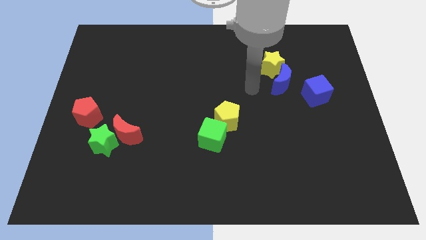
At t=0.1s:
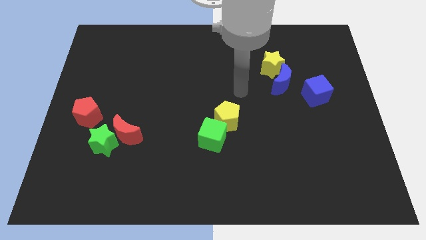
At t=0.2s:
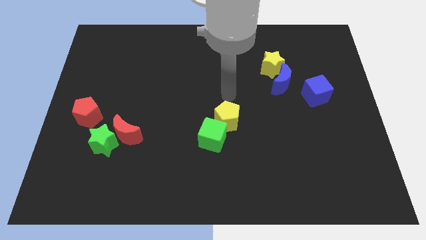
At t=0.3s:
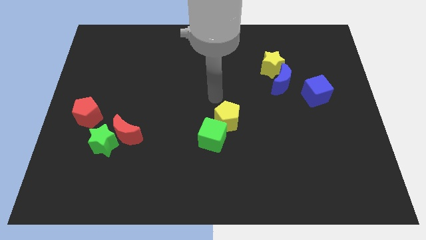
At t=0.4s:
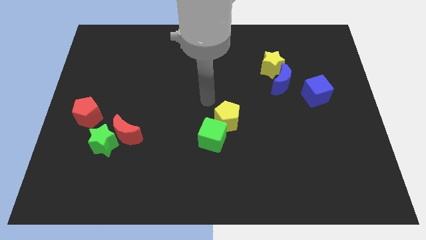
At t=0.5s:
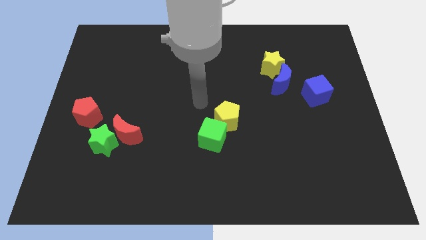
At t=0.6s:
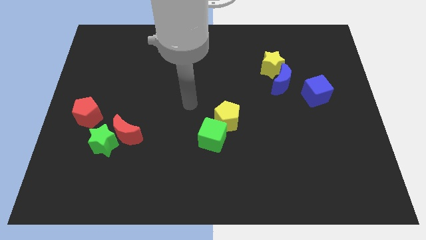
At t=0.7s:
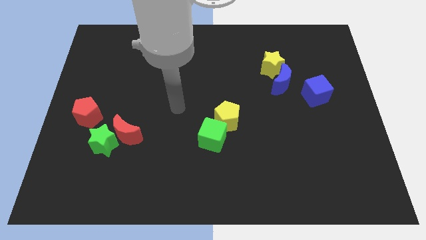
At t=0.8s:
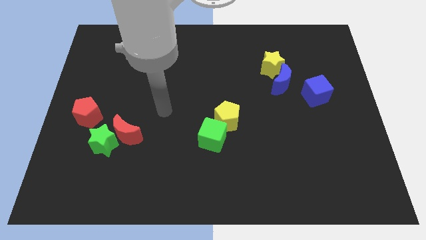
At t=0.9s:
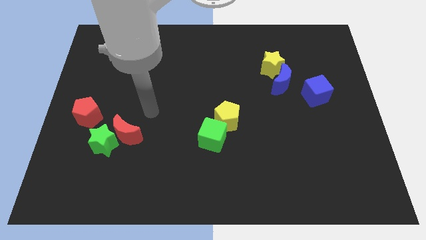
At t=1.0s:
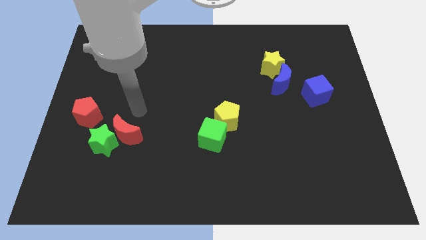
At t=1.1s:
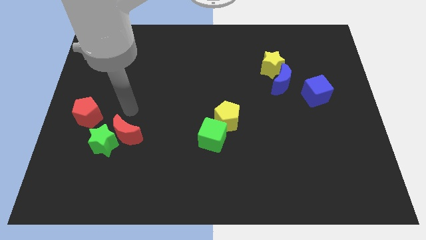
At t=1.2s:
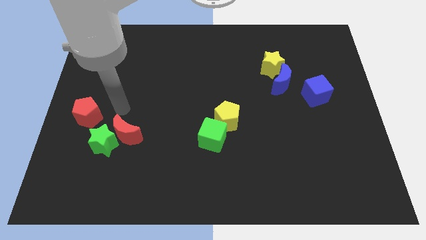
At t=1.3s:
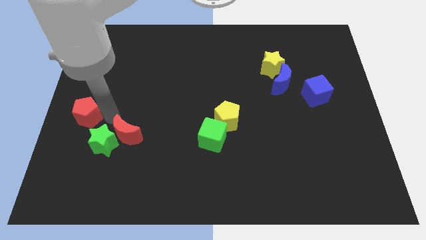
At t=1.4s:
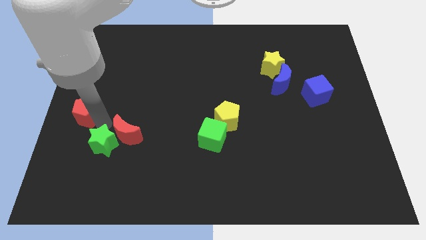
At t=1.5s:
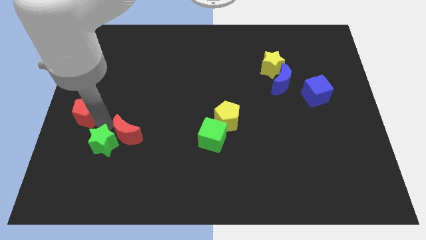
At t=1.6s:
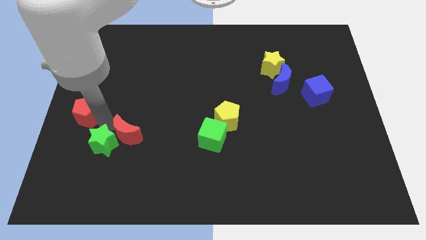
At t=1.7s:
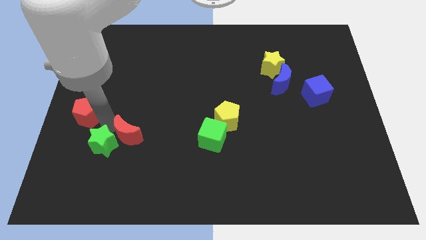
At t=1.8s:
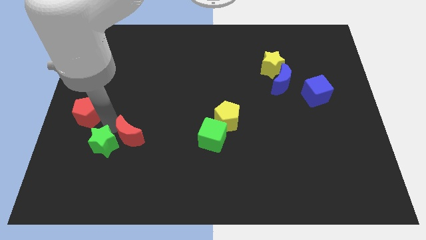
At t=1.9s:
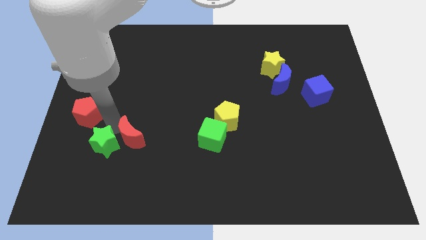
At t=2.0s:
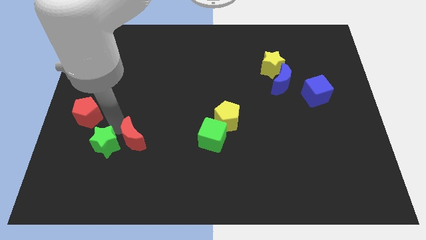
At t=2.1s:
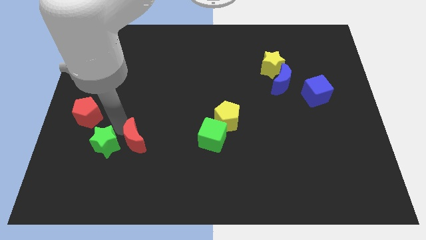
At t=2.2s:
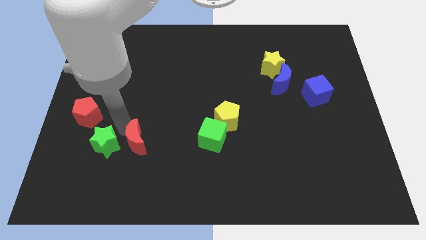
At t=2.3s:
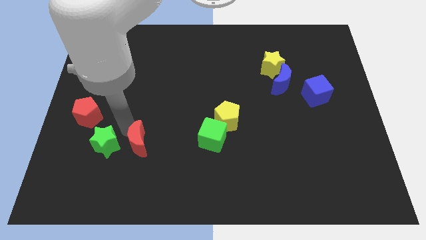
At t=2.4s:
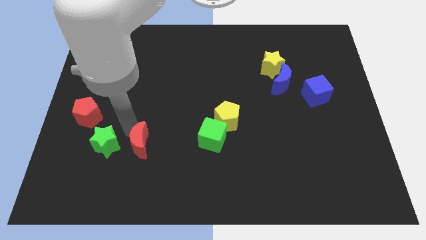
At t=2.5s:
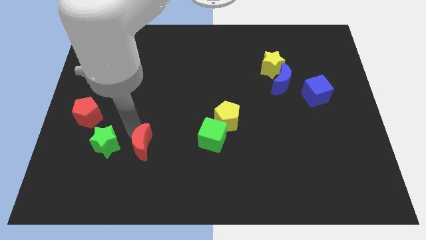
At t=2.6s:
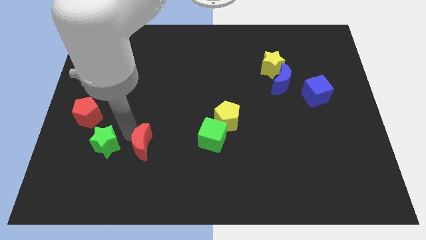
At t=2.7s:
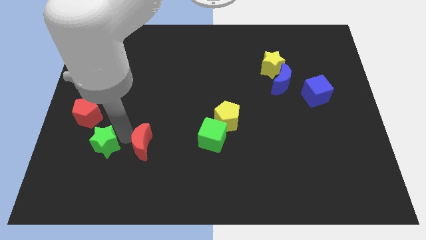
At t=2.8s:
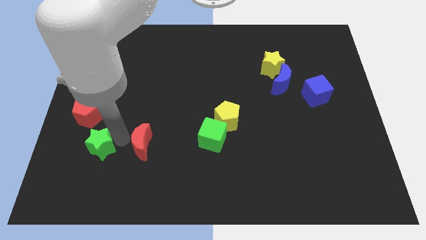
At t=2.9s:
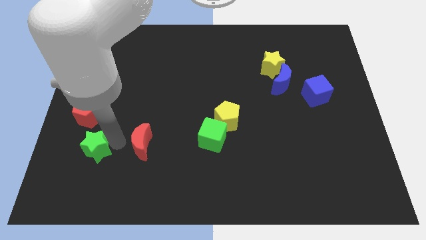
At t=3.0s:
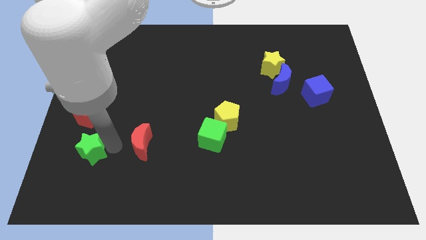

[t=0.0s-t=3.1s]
move the red moon away from the green star

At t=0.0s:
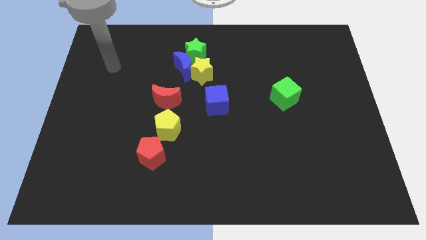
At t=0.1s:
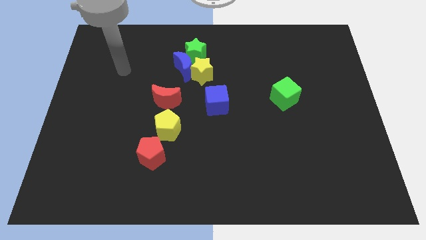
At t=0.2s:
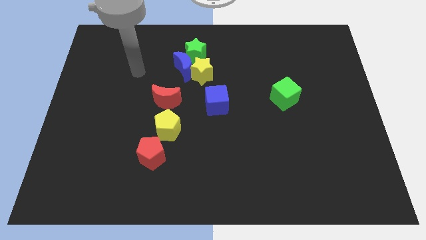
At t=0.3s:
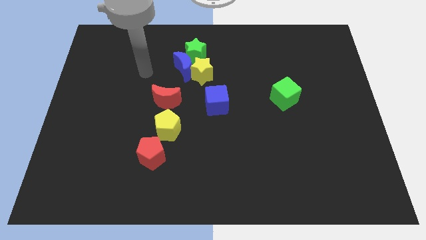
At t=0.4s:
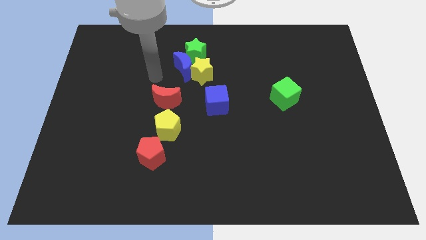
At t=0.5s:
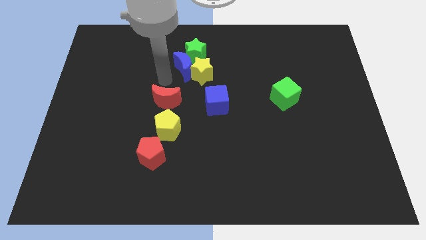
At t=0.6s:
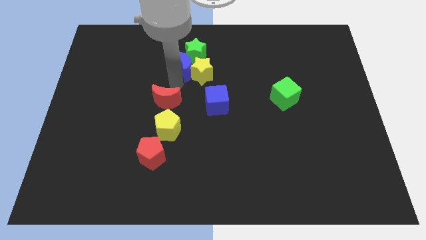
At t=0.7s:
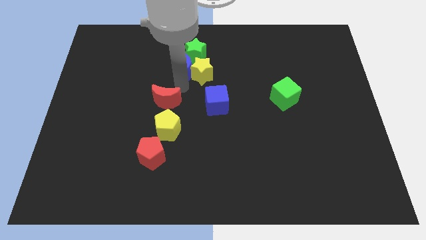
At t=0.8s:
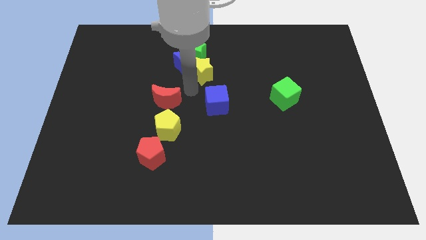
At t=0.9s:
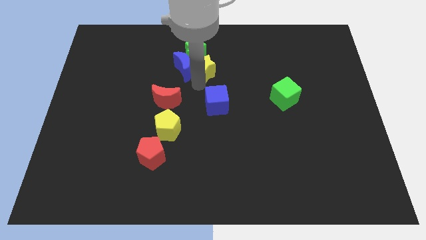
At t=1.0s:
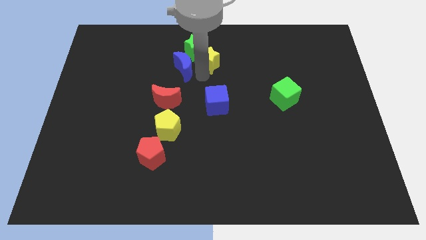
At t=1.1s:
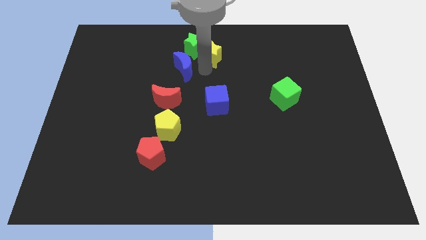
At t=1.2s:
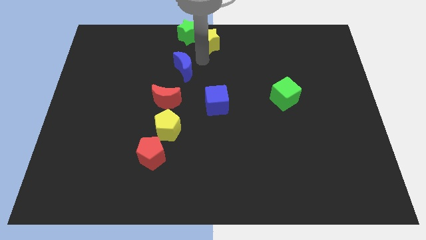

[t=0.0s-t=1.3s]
move the blue moon away from the yellow star and green star

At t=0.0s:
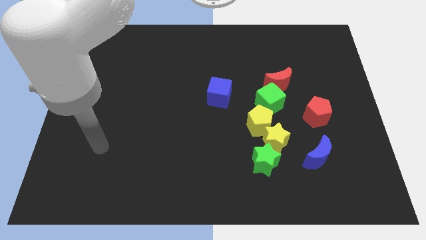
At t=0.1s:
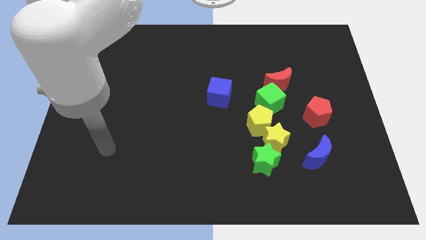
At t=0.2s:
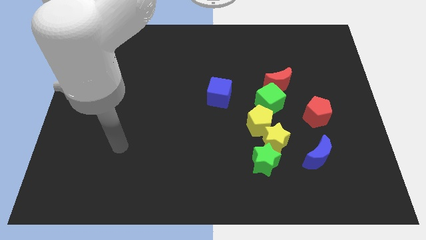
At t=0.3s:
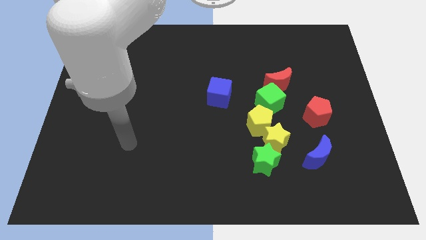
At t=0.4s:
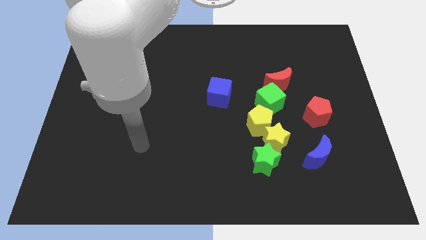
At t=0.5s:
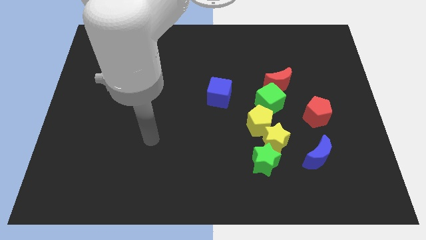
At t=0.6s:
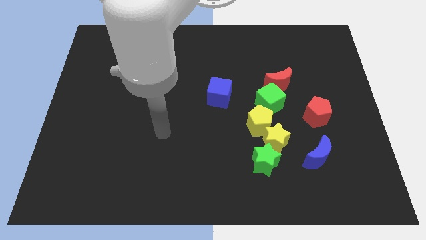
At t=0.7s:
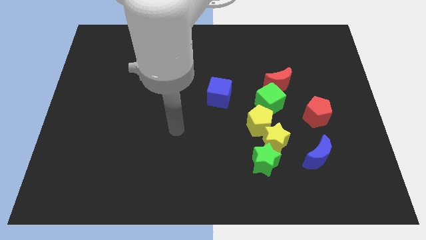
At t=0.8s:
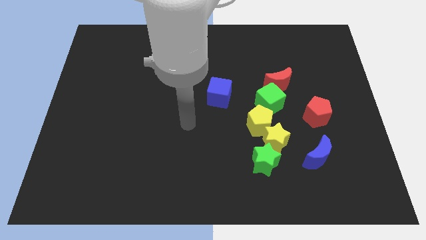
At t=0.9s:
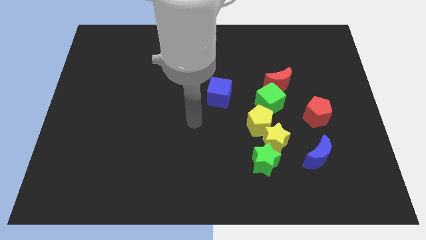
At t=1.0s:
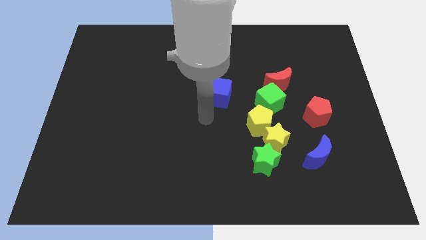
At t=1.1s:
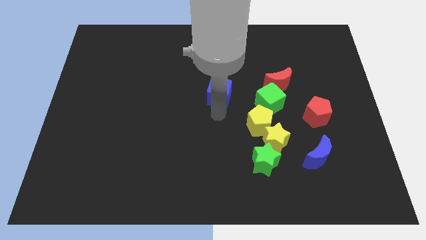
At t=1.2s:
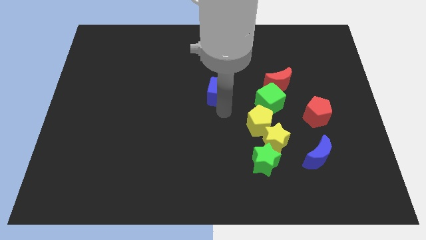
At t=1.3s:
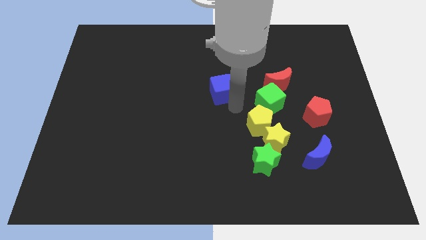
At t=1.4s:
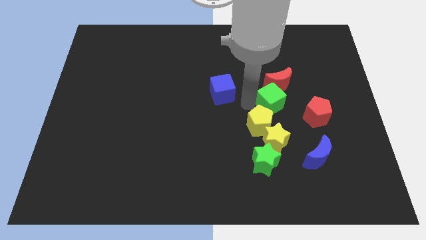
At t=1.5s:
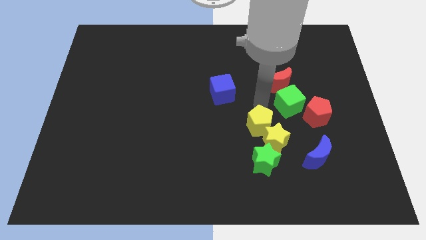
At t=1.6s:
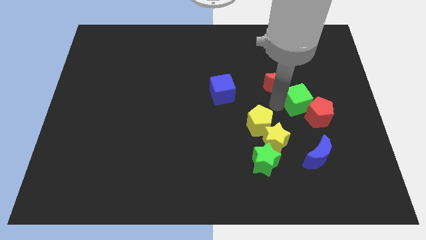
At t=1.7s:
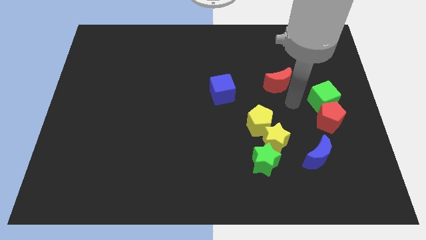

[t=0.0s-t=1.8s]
separate the red moon from the green cube

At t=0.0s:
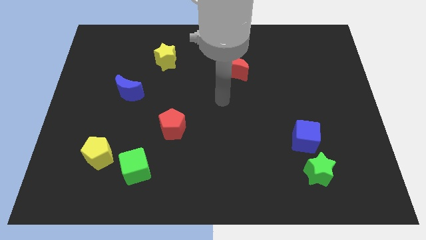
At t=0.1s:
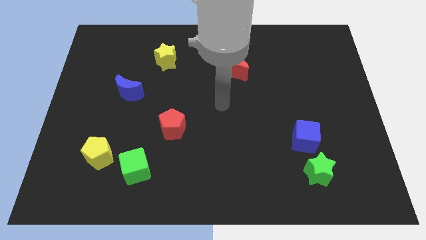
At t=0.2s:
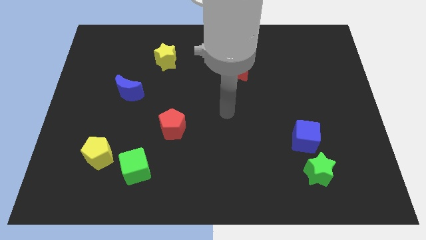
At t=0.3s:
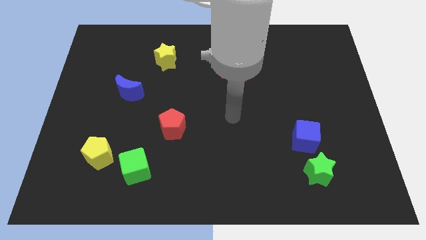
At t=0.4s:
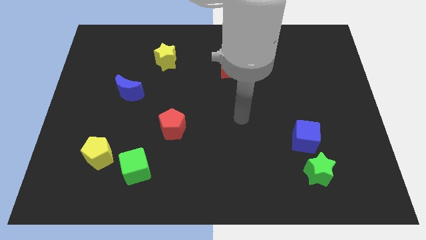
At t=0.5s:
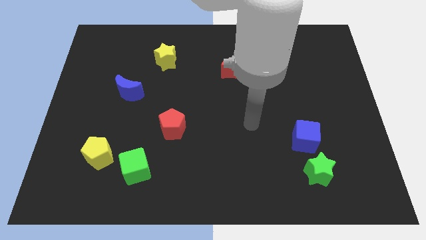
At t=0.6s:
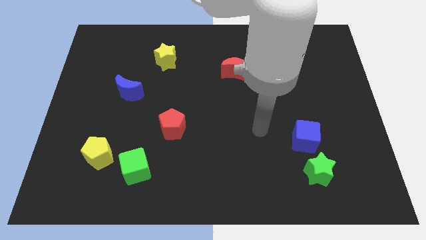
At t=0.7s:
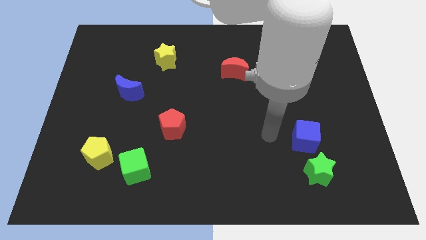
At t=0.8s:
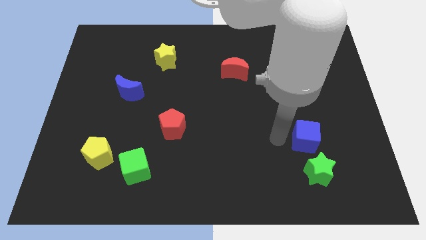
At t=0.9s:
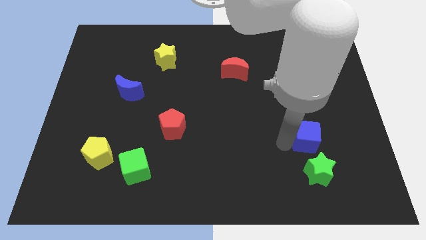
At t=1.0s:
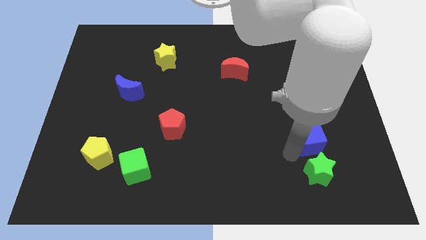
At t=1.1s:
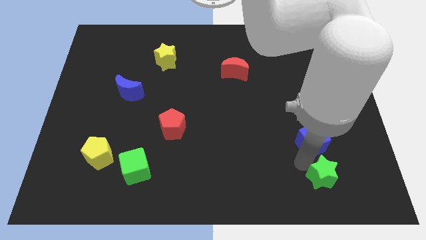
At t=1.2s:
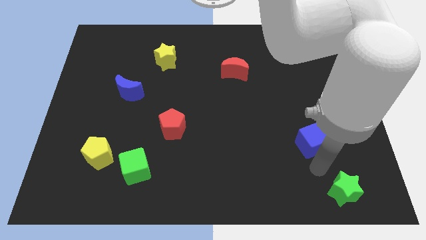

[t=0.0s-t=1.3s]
move the blue cube away from the green star

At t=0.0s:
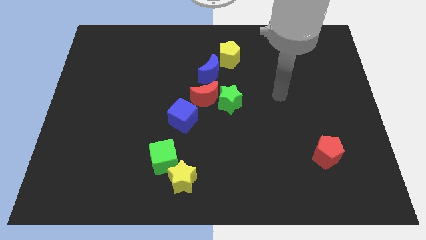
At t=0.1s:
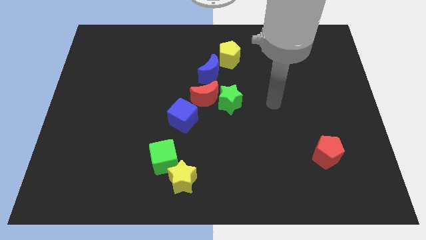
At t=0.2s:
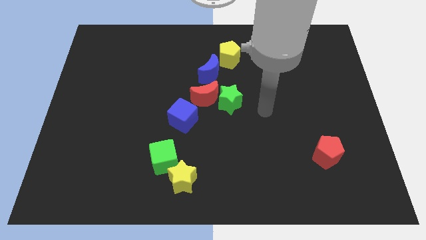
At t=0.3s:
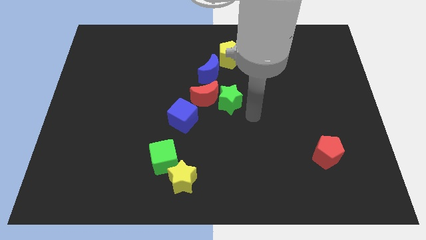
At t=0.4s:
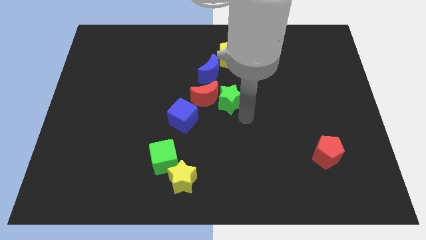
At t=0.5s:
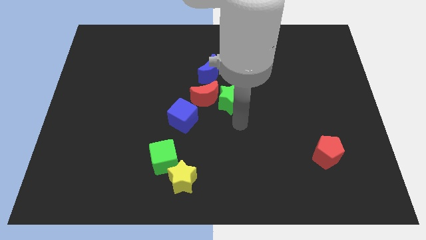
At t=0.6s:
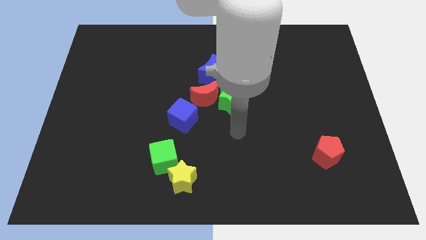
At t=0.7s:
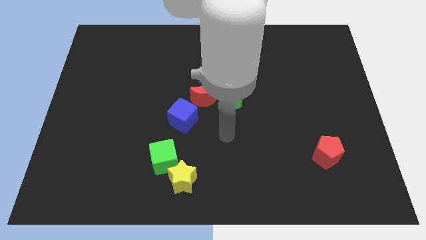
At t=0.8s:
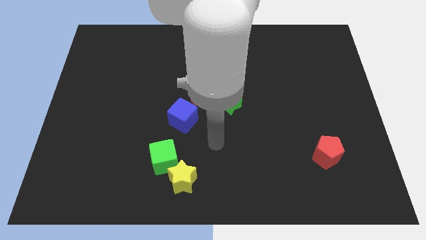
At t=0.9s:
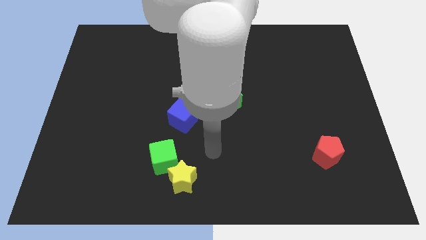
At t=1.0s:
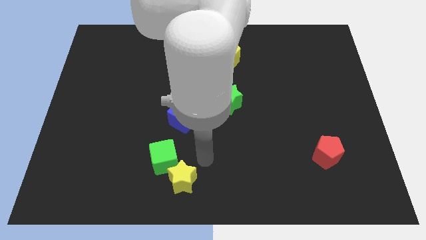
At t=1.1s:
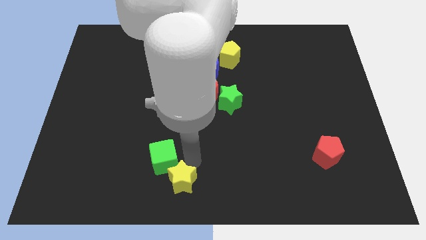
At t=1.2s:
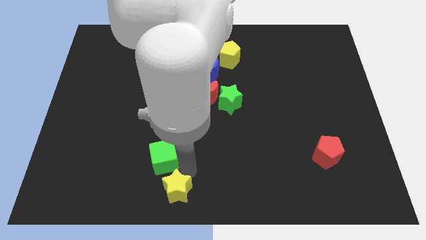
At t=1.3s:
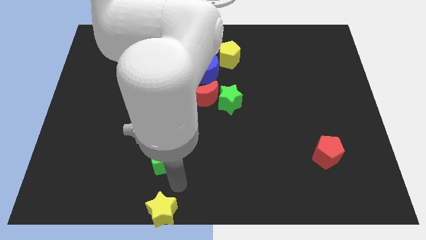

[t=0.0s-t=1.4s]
separate the green cube from the yellow star

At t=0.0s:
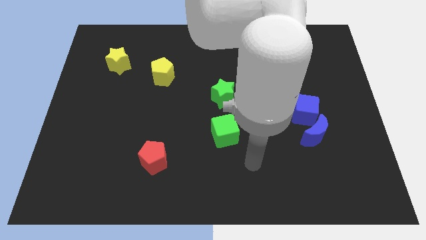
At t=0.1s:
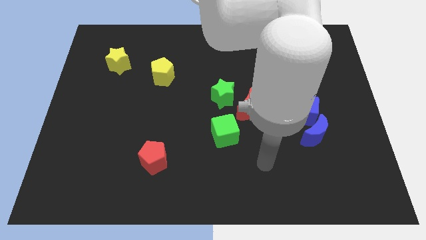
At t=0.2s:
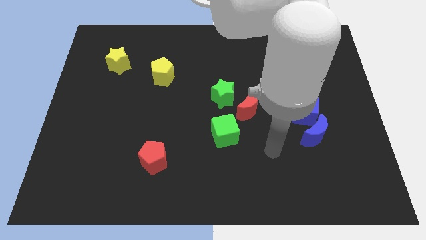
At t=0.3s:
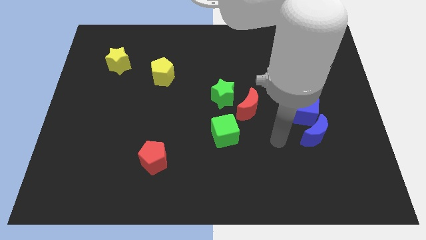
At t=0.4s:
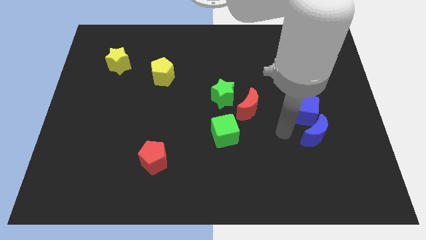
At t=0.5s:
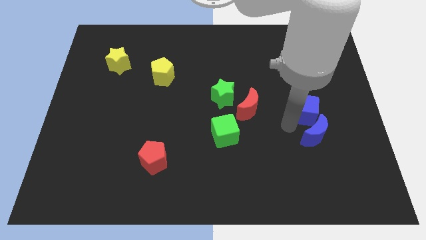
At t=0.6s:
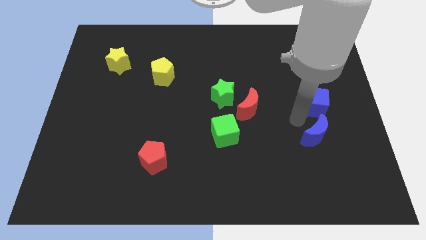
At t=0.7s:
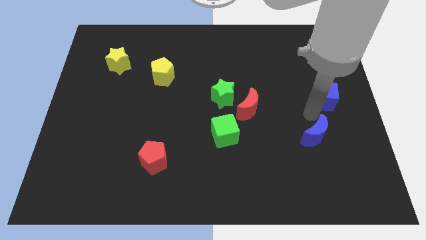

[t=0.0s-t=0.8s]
move the blue moon away from the blue cube
